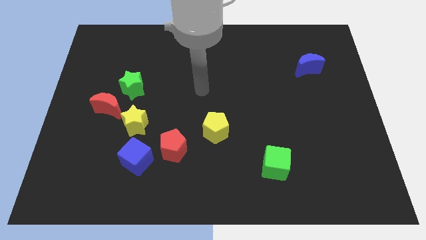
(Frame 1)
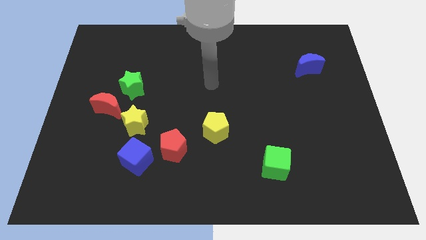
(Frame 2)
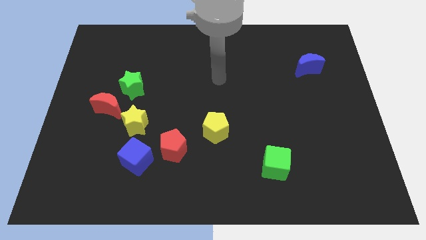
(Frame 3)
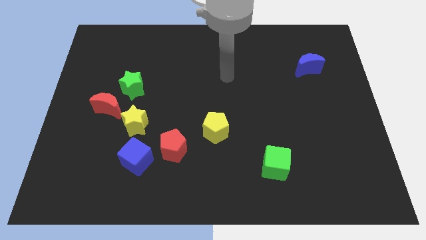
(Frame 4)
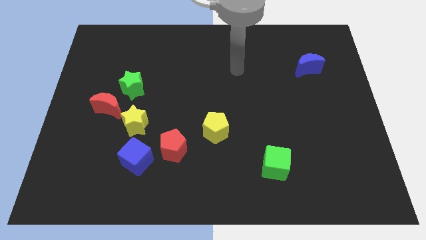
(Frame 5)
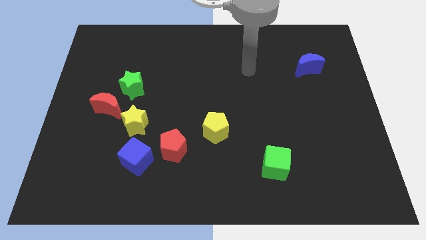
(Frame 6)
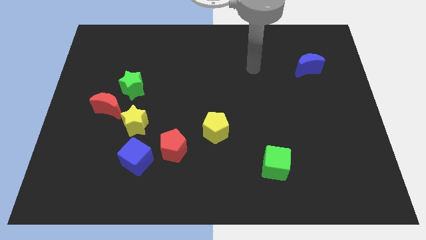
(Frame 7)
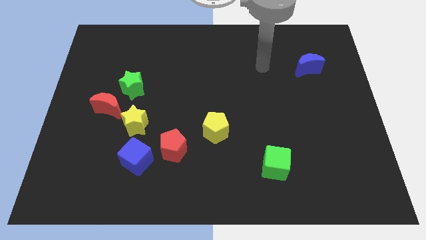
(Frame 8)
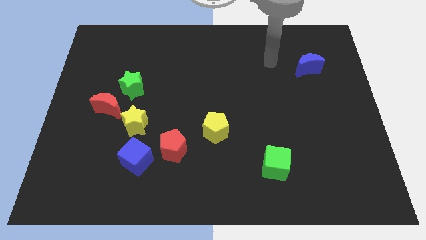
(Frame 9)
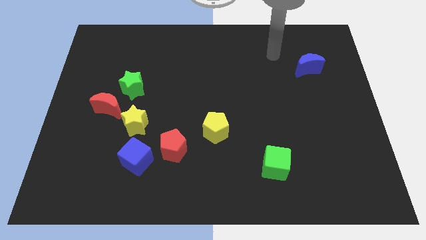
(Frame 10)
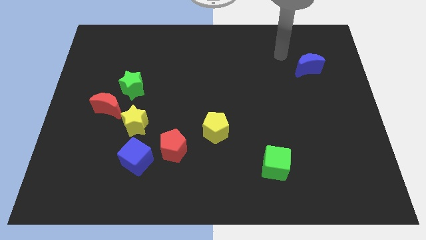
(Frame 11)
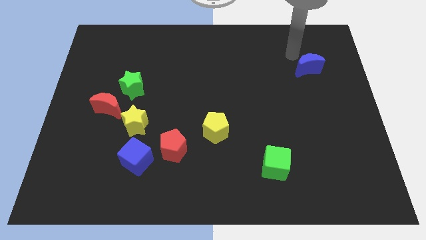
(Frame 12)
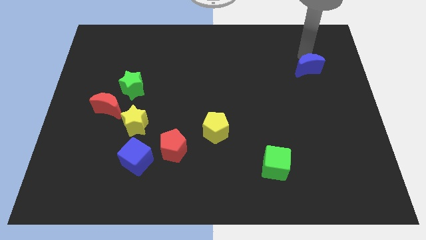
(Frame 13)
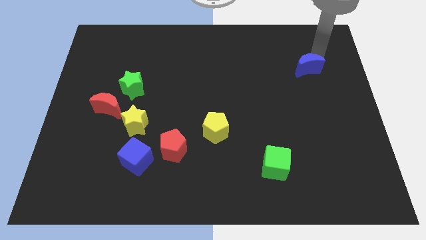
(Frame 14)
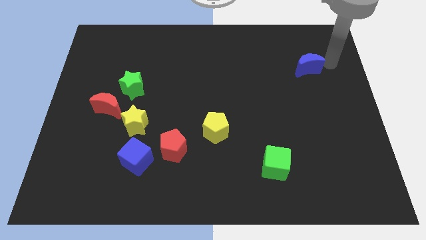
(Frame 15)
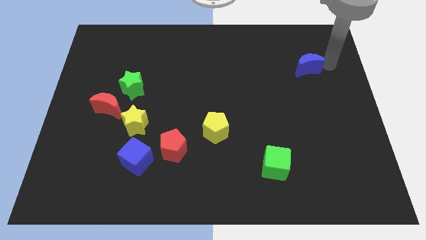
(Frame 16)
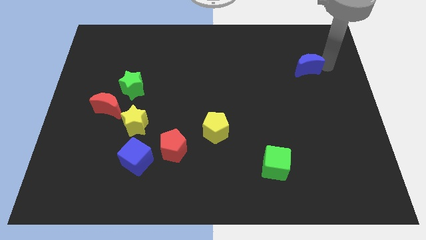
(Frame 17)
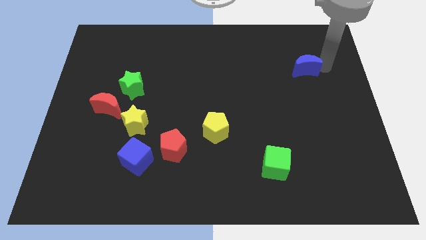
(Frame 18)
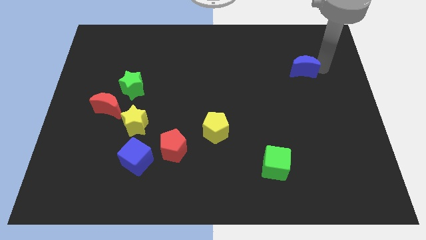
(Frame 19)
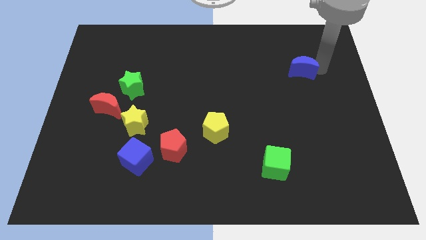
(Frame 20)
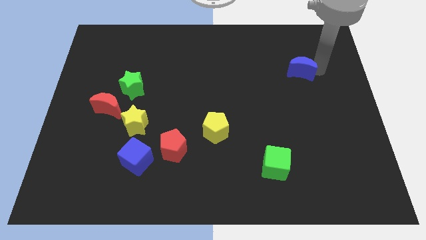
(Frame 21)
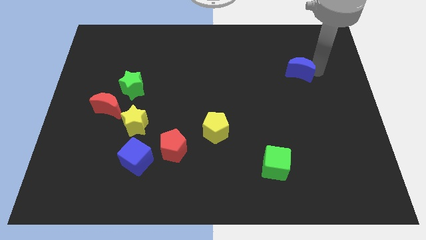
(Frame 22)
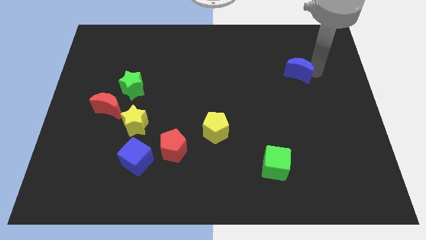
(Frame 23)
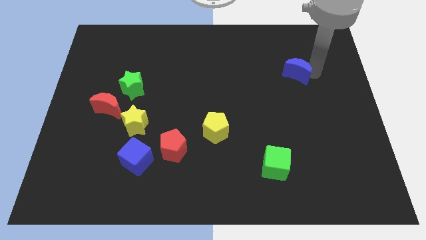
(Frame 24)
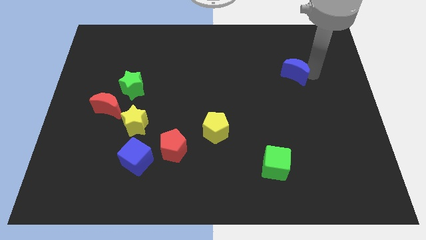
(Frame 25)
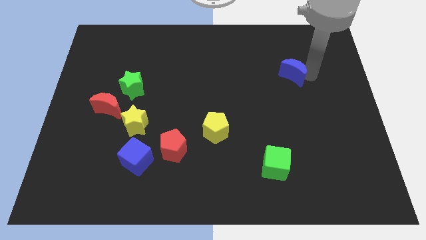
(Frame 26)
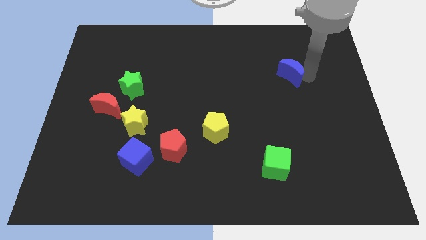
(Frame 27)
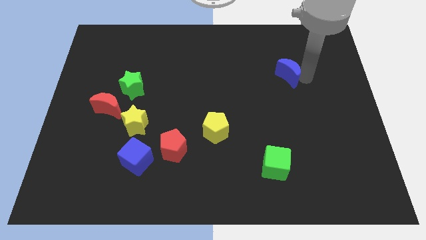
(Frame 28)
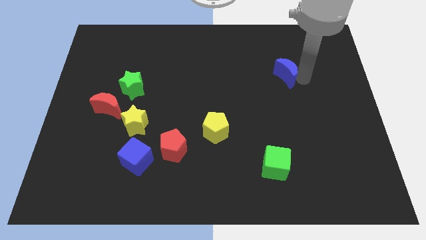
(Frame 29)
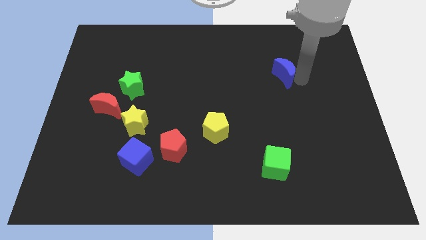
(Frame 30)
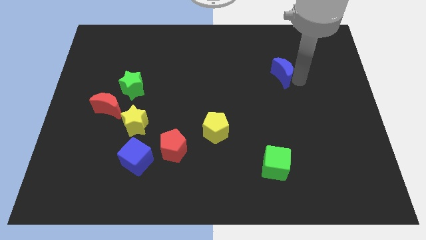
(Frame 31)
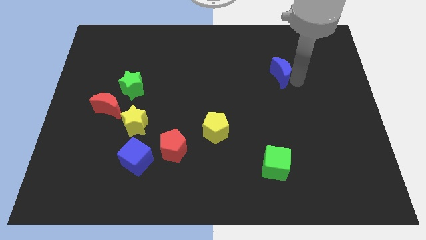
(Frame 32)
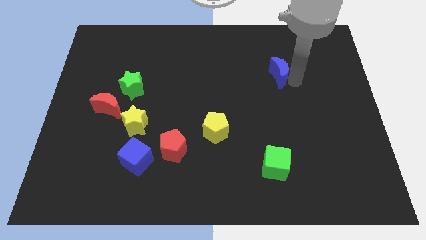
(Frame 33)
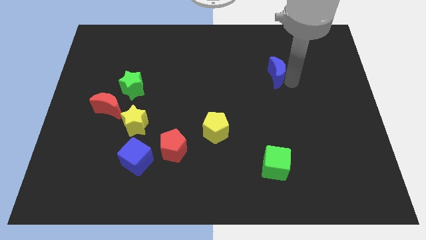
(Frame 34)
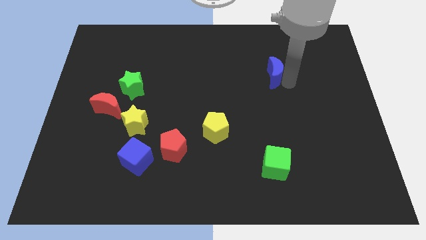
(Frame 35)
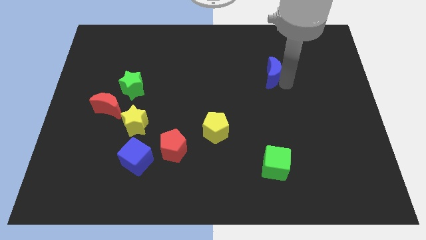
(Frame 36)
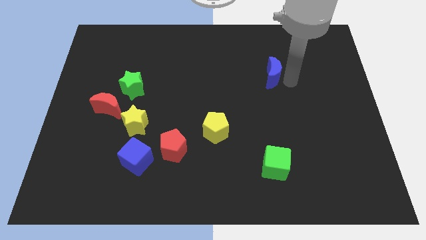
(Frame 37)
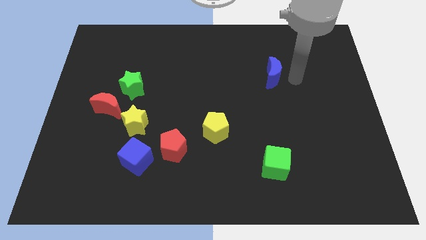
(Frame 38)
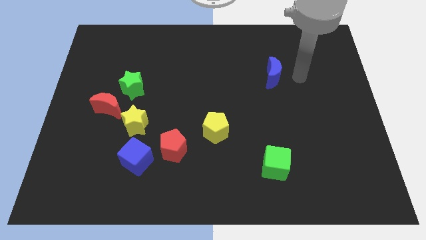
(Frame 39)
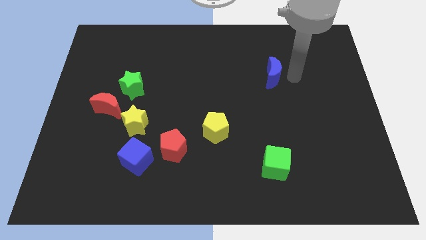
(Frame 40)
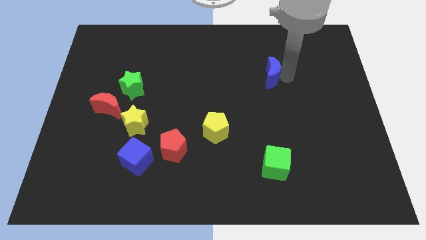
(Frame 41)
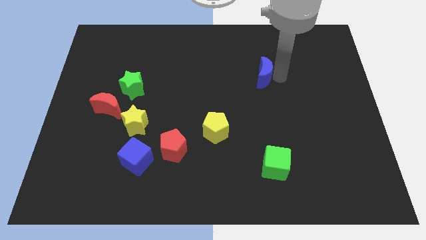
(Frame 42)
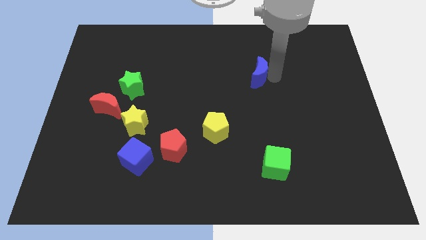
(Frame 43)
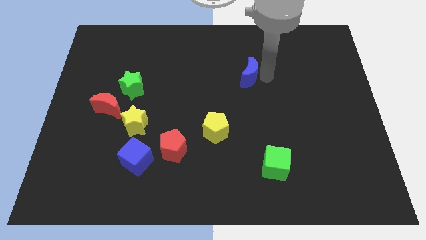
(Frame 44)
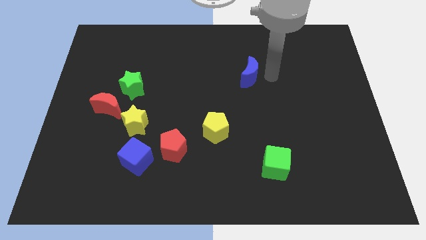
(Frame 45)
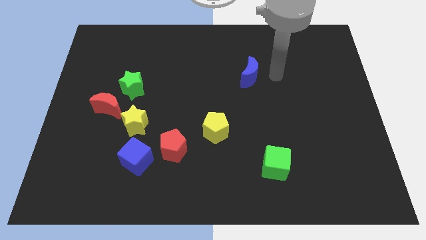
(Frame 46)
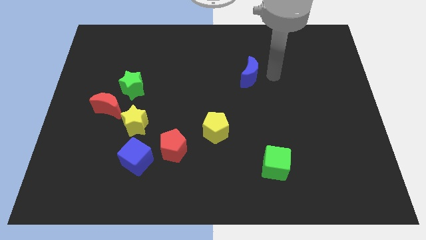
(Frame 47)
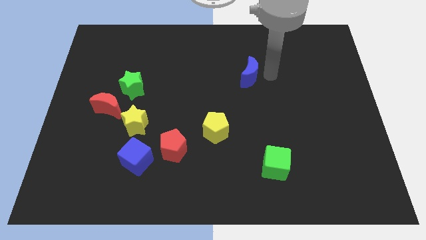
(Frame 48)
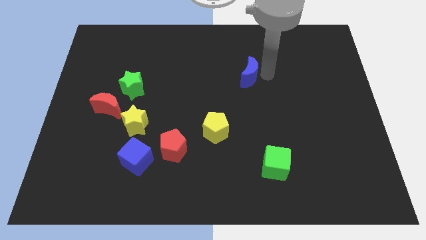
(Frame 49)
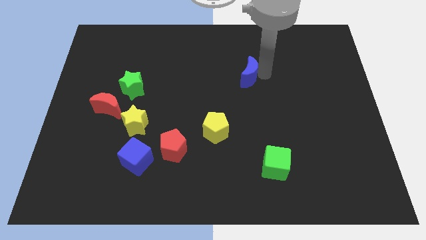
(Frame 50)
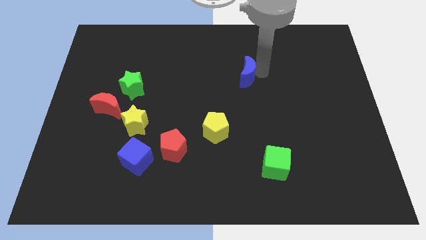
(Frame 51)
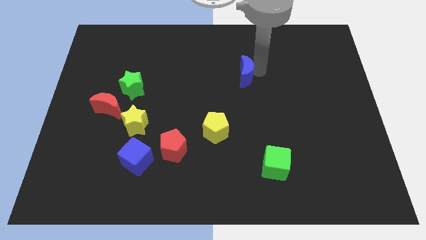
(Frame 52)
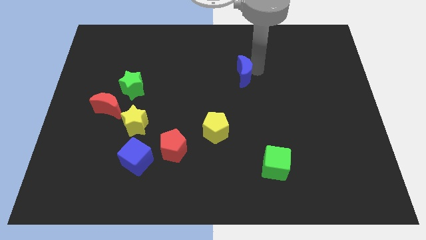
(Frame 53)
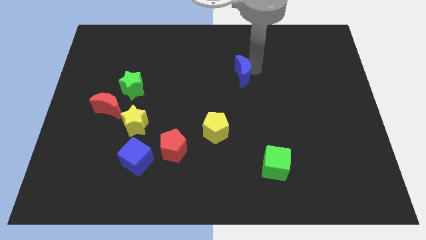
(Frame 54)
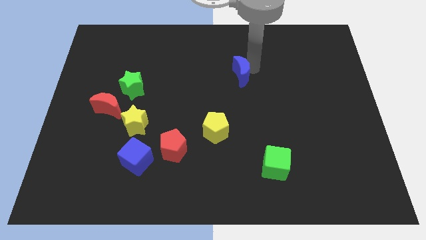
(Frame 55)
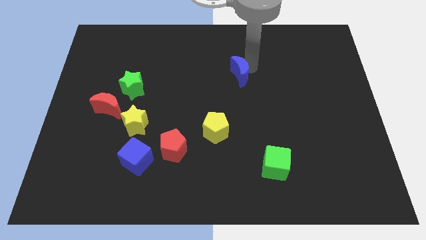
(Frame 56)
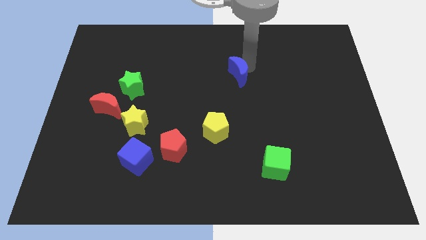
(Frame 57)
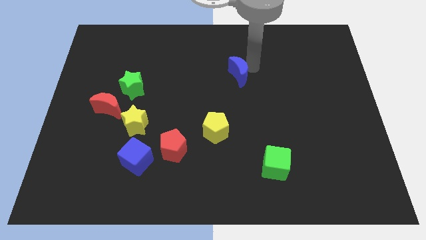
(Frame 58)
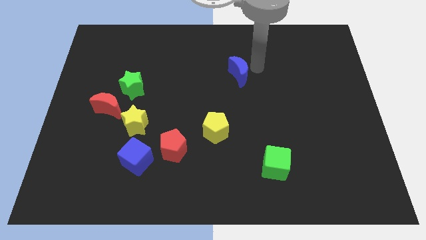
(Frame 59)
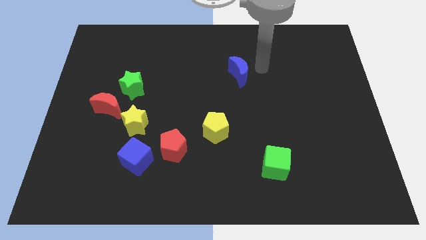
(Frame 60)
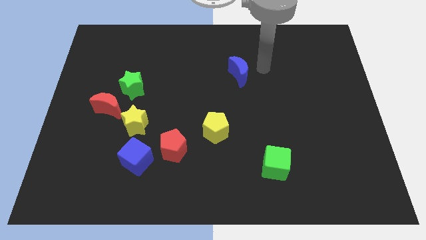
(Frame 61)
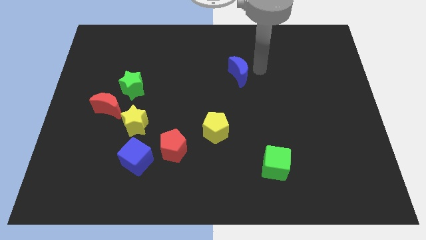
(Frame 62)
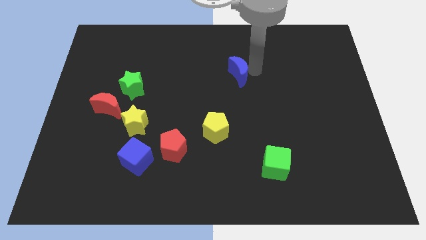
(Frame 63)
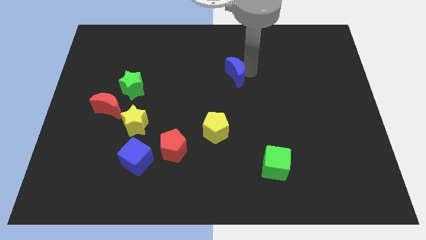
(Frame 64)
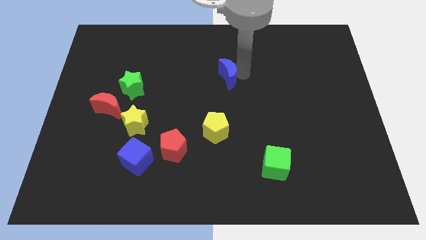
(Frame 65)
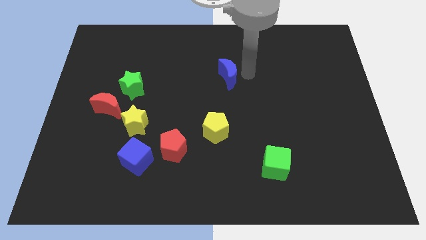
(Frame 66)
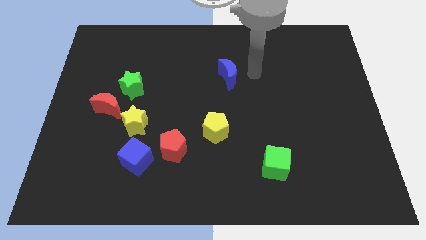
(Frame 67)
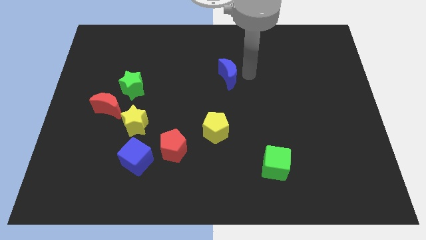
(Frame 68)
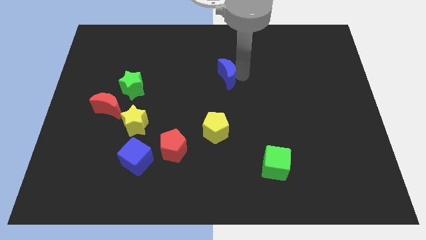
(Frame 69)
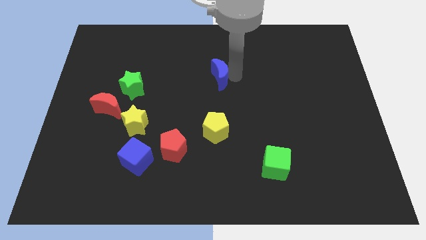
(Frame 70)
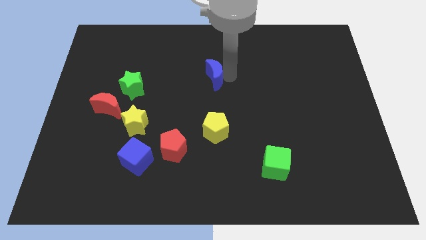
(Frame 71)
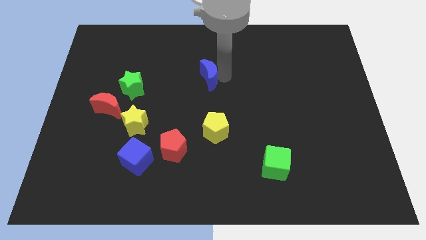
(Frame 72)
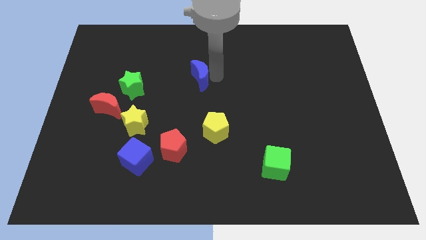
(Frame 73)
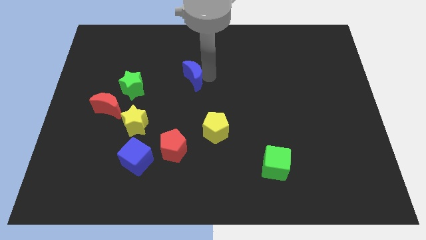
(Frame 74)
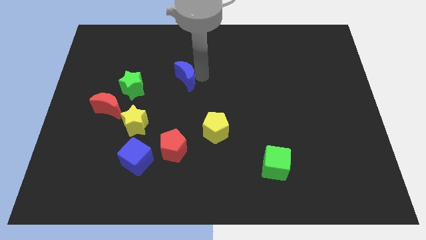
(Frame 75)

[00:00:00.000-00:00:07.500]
slide the blue moon to the right side of the green star

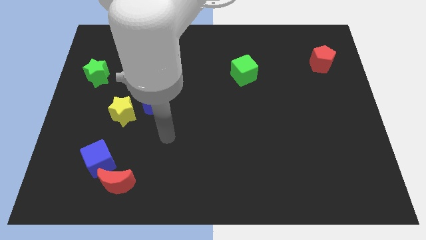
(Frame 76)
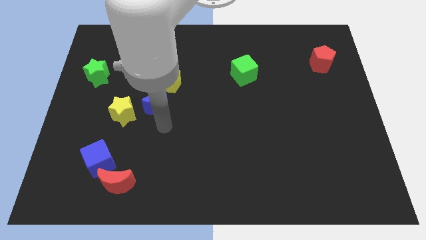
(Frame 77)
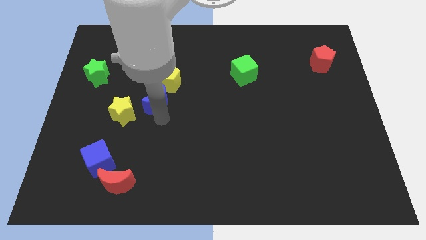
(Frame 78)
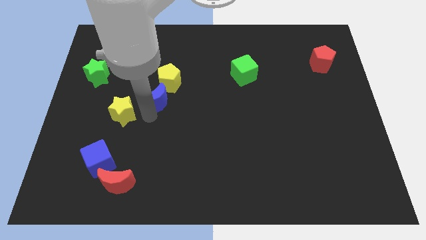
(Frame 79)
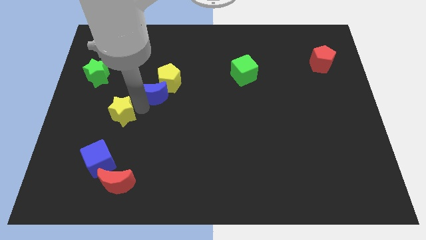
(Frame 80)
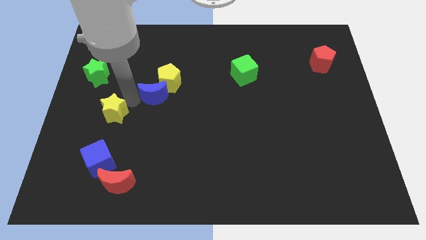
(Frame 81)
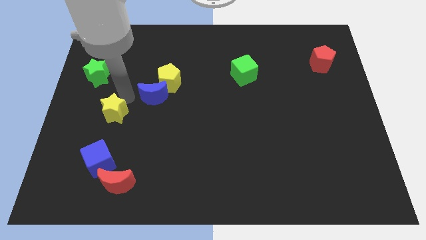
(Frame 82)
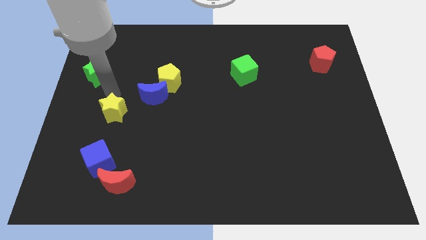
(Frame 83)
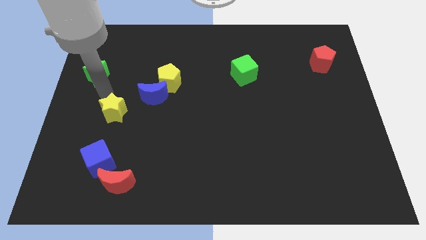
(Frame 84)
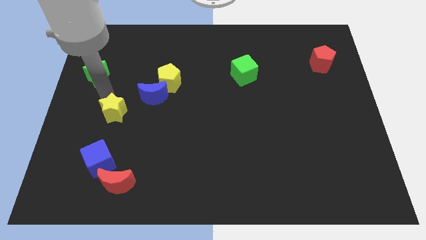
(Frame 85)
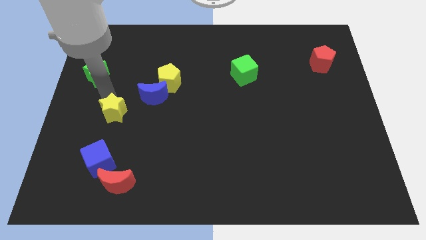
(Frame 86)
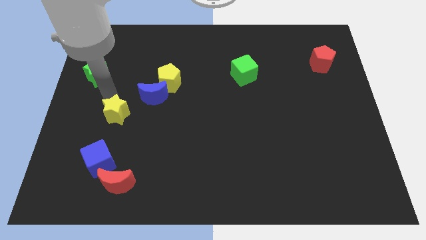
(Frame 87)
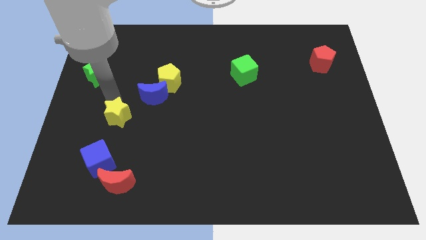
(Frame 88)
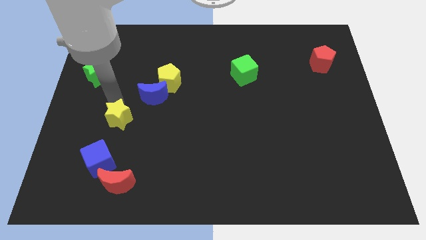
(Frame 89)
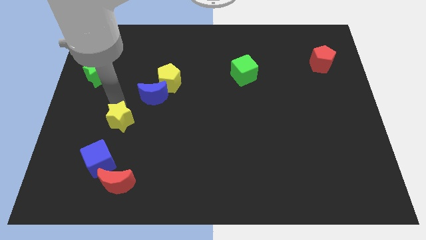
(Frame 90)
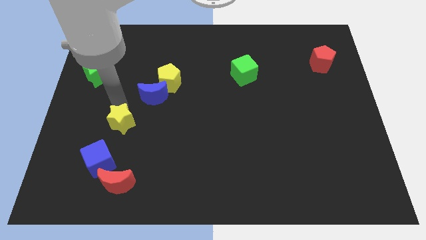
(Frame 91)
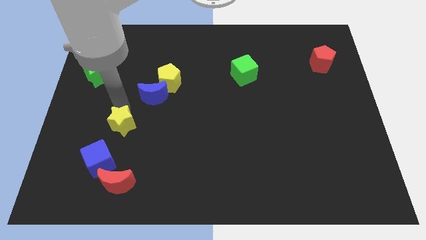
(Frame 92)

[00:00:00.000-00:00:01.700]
push the yellow star diagonally up and to the right of the blue cube
